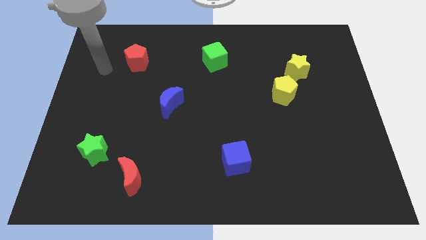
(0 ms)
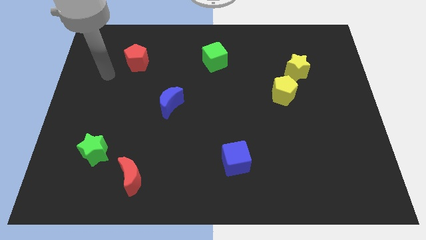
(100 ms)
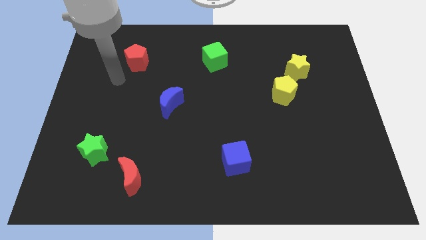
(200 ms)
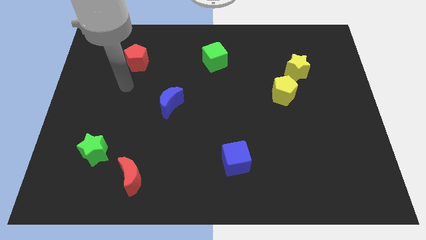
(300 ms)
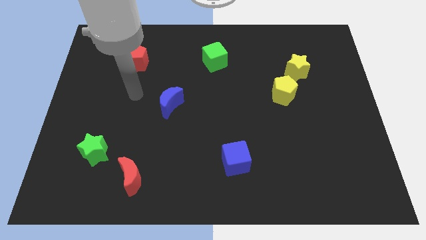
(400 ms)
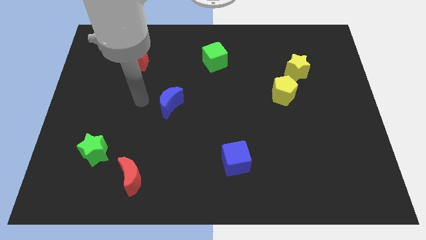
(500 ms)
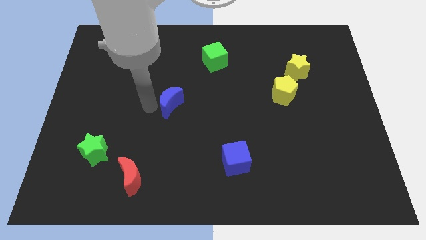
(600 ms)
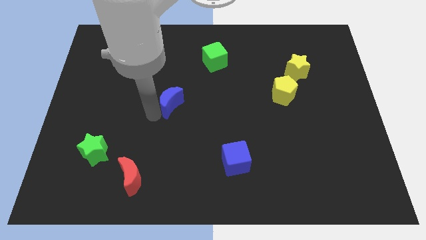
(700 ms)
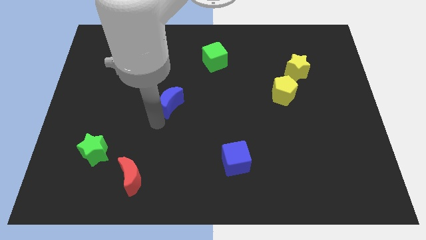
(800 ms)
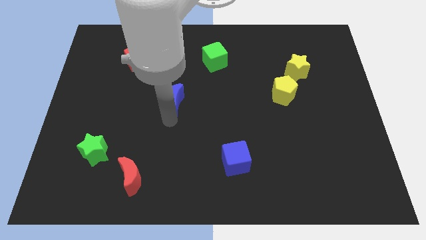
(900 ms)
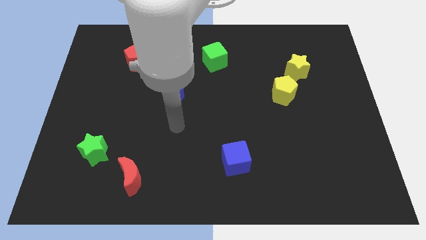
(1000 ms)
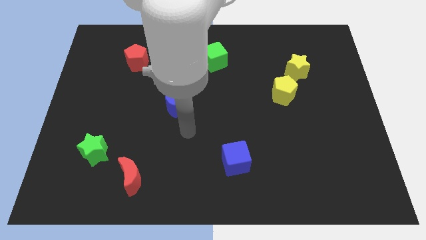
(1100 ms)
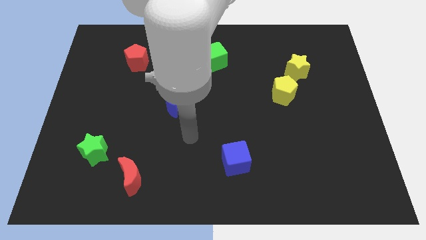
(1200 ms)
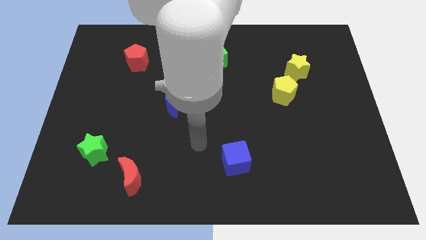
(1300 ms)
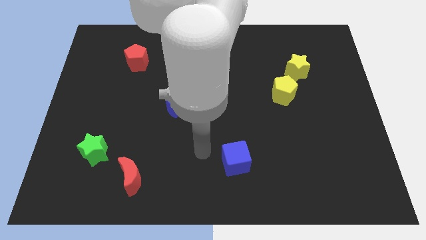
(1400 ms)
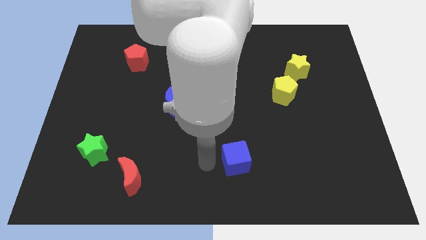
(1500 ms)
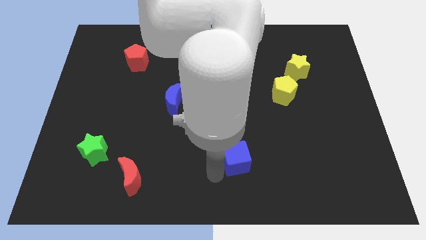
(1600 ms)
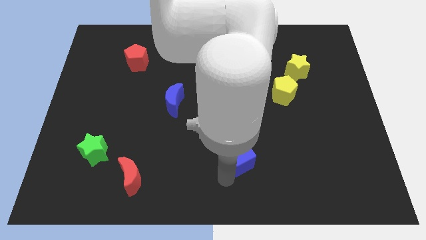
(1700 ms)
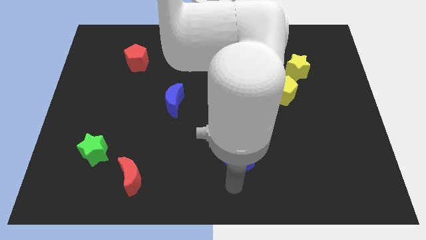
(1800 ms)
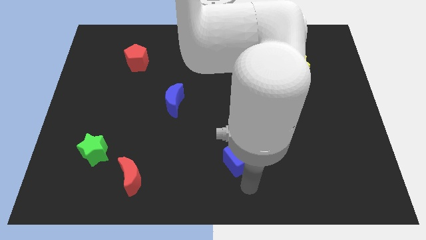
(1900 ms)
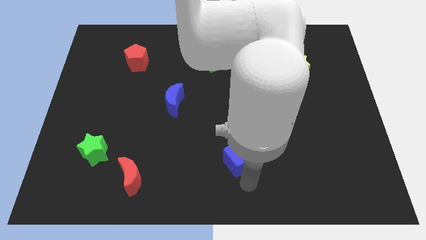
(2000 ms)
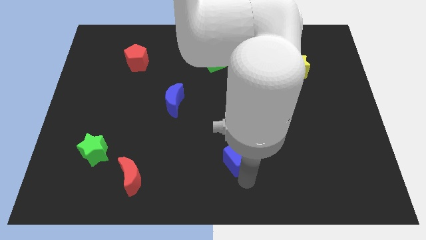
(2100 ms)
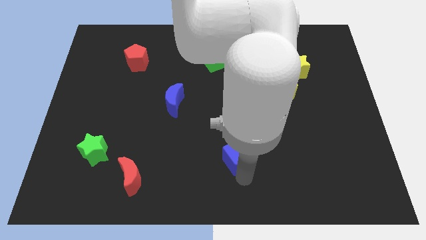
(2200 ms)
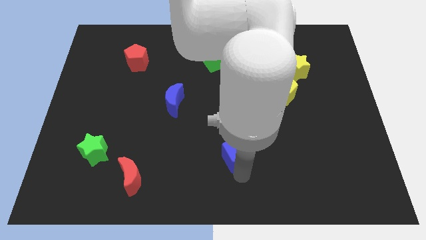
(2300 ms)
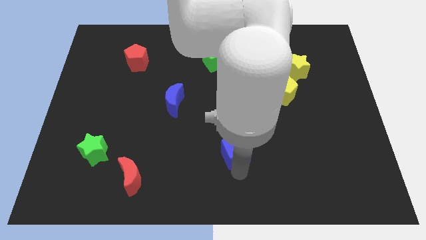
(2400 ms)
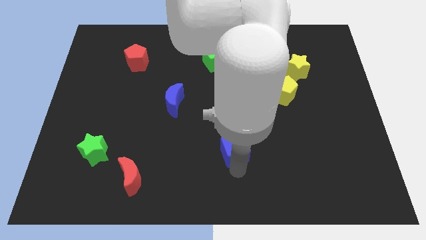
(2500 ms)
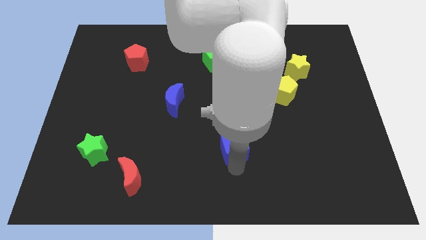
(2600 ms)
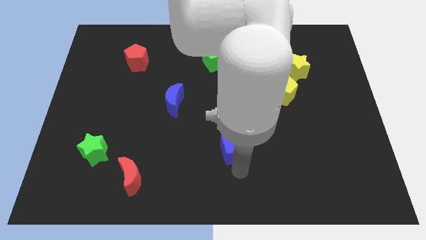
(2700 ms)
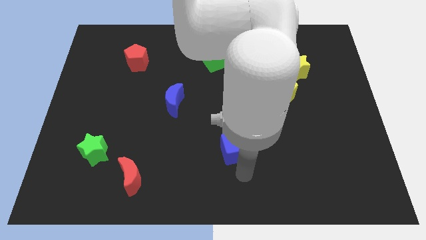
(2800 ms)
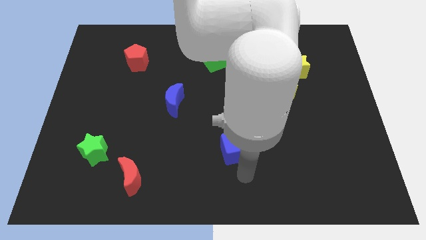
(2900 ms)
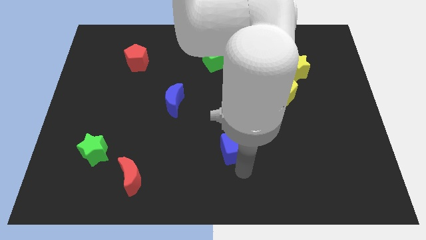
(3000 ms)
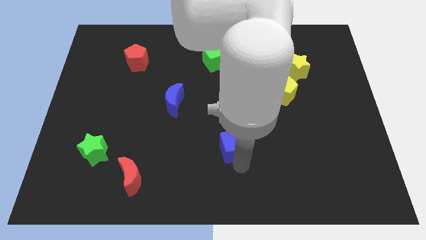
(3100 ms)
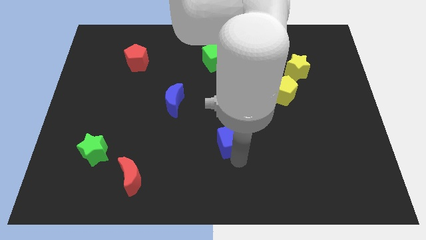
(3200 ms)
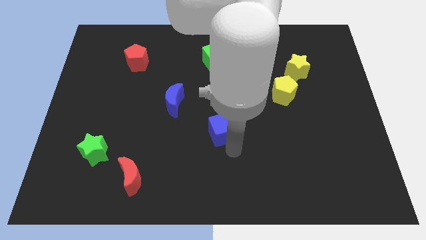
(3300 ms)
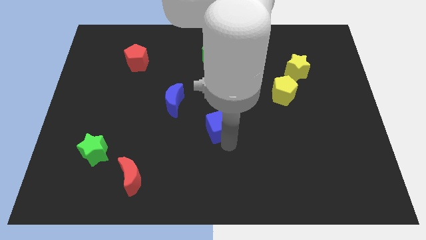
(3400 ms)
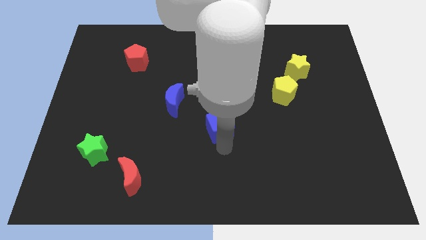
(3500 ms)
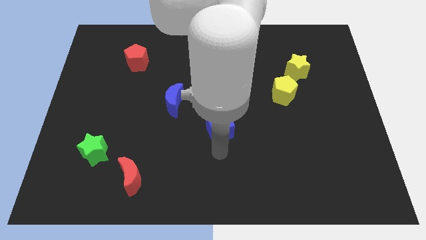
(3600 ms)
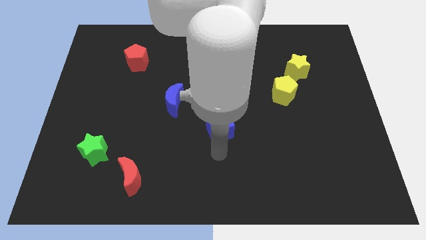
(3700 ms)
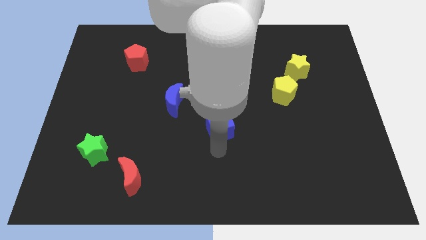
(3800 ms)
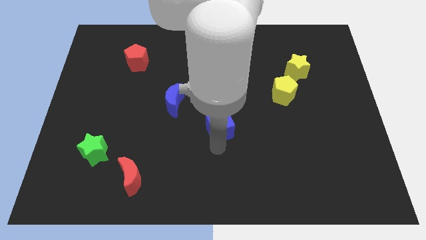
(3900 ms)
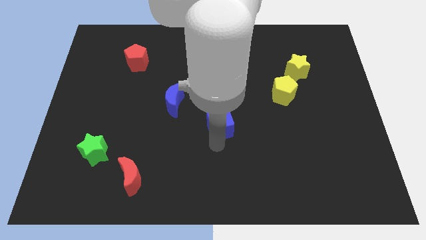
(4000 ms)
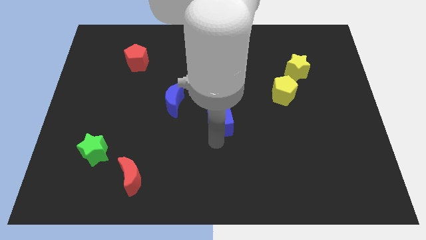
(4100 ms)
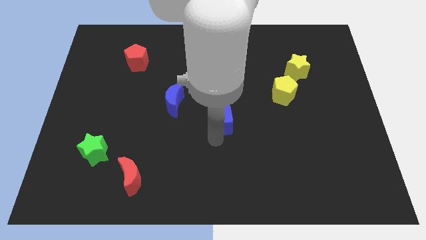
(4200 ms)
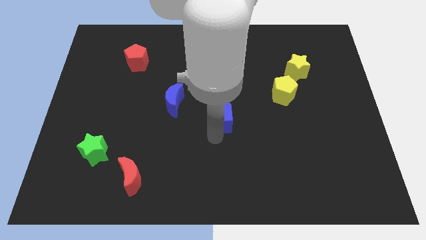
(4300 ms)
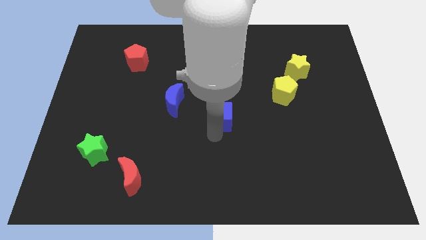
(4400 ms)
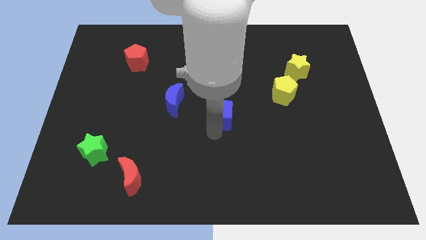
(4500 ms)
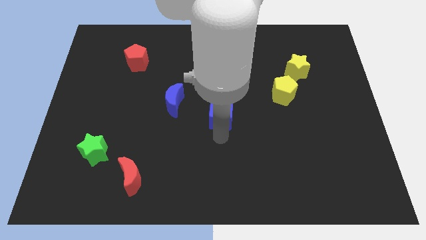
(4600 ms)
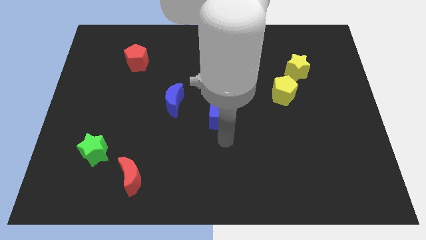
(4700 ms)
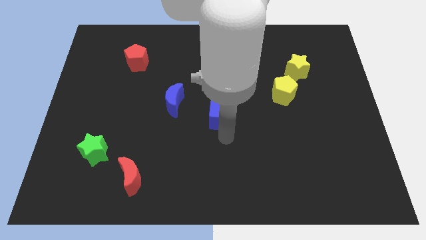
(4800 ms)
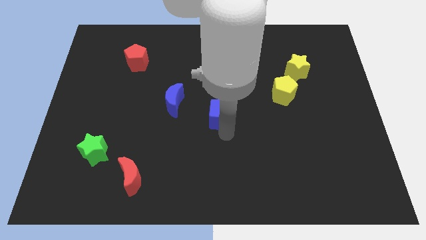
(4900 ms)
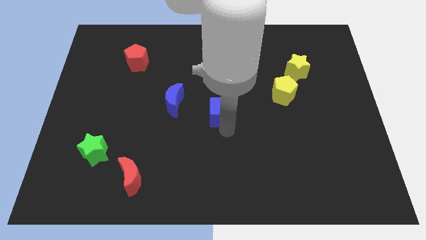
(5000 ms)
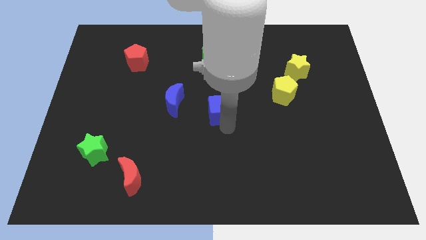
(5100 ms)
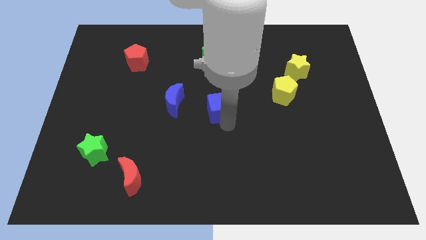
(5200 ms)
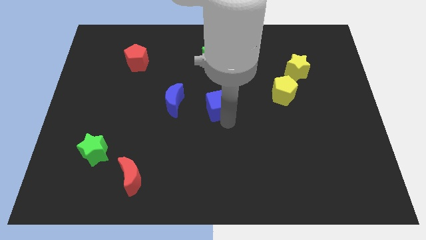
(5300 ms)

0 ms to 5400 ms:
push the blue cube to the bottom of the green cube

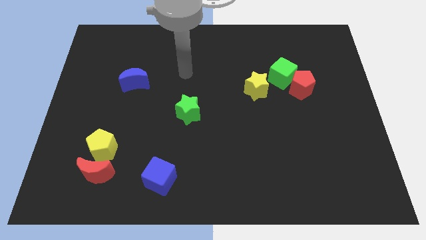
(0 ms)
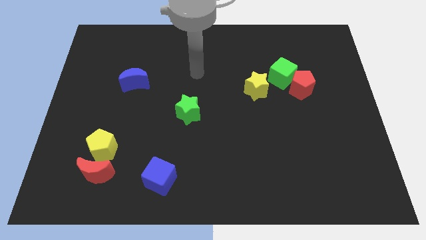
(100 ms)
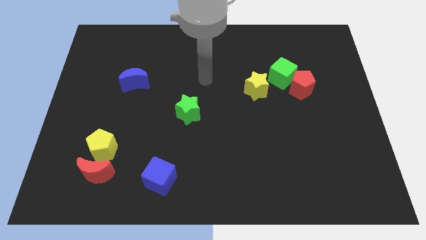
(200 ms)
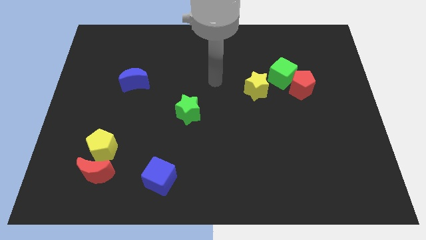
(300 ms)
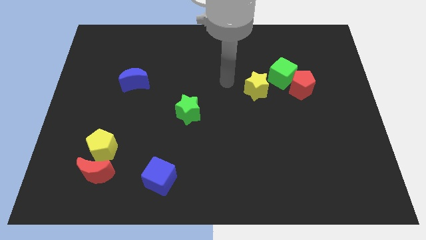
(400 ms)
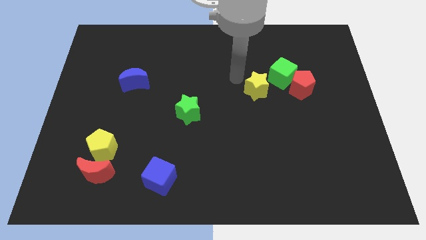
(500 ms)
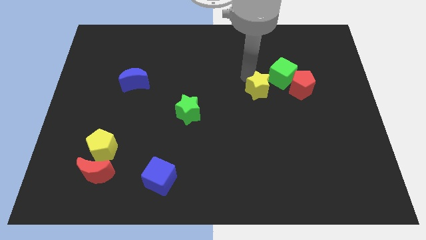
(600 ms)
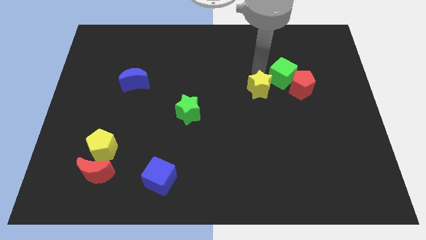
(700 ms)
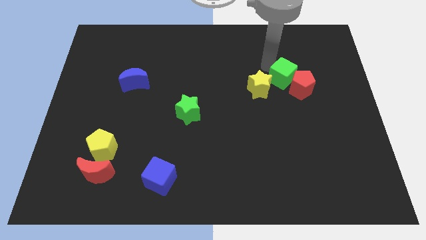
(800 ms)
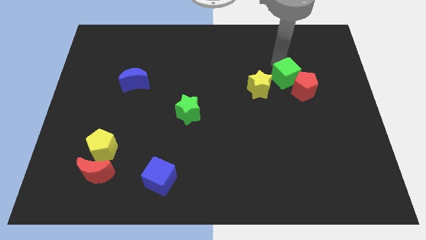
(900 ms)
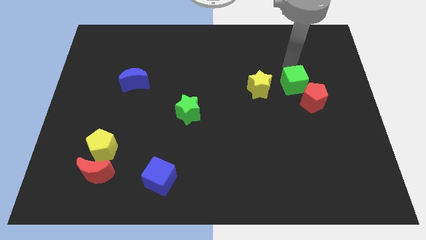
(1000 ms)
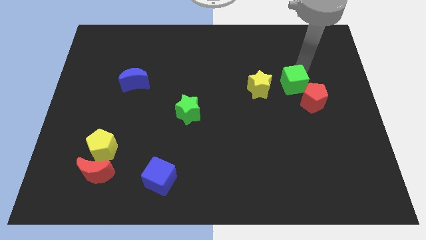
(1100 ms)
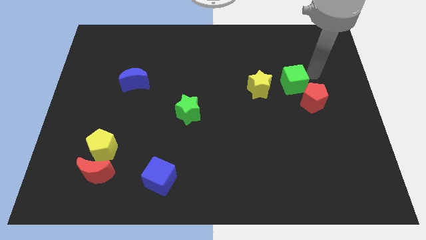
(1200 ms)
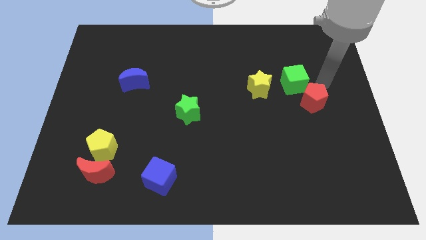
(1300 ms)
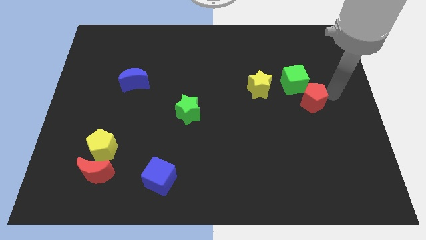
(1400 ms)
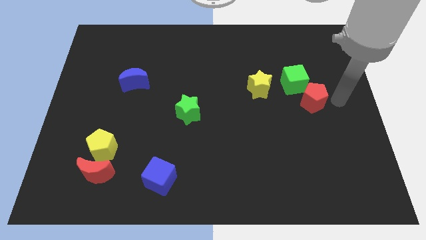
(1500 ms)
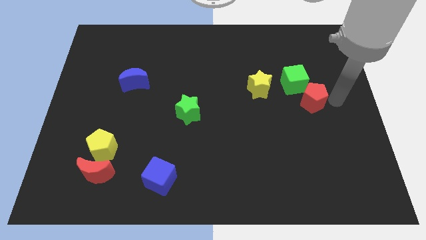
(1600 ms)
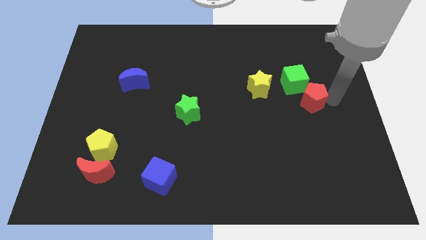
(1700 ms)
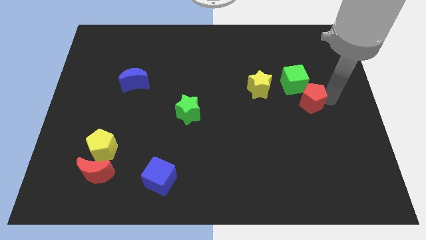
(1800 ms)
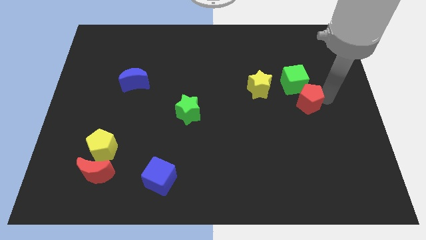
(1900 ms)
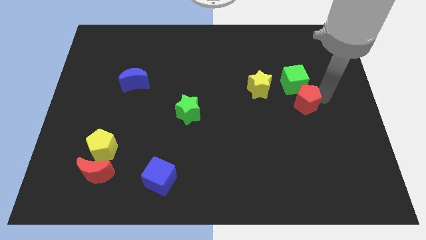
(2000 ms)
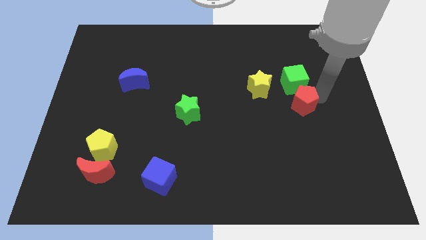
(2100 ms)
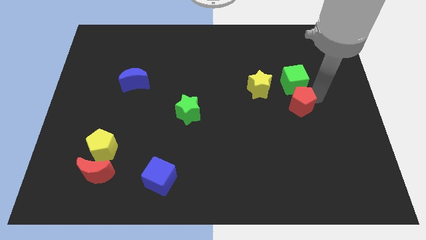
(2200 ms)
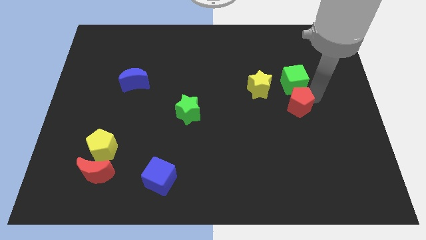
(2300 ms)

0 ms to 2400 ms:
move the red pentagon to the bottom left side of the green cube
